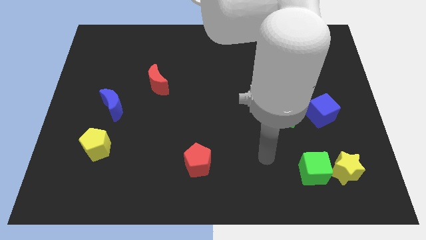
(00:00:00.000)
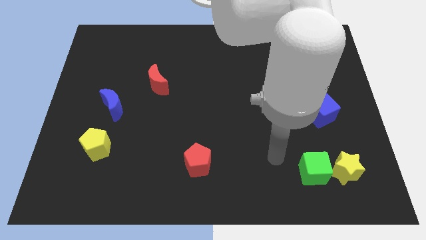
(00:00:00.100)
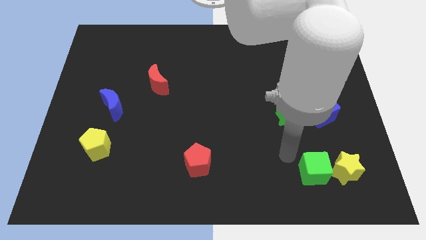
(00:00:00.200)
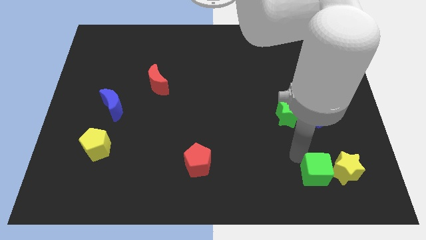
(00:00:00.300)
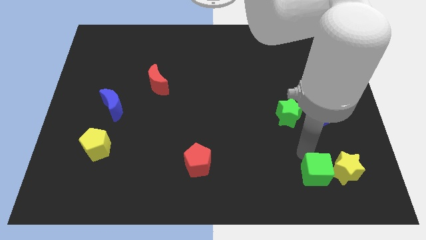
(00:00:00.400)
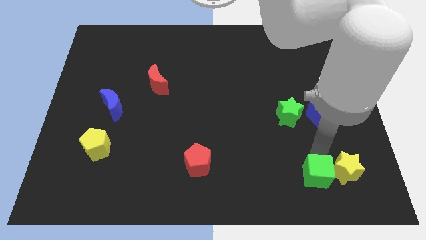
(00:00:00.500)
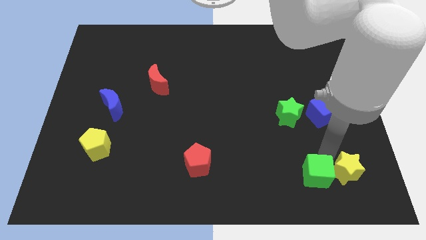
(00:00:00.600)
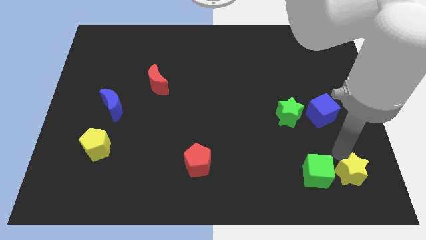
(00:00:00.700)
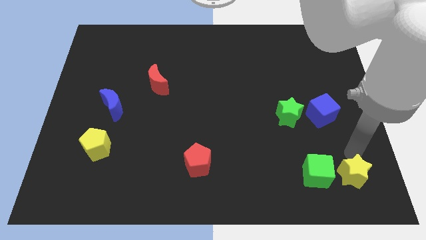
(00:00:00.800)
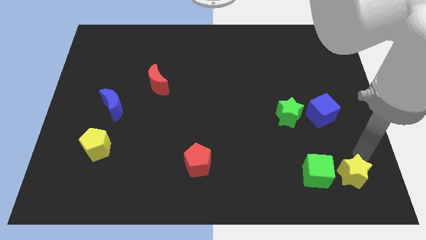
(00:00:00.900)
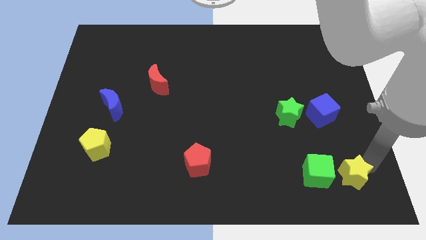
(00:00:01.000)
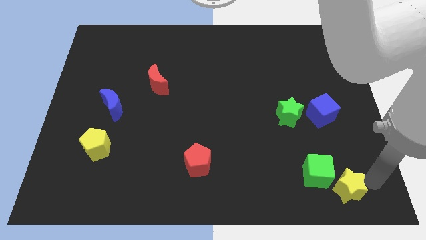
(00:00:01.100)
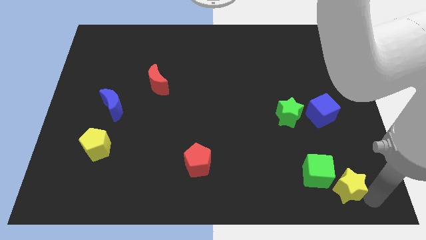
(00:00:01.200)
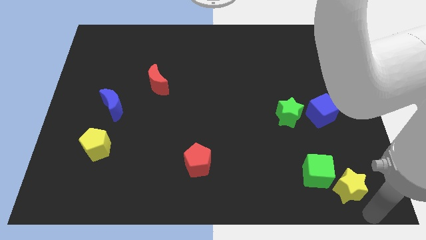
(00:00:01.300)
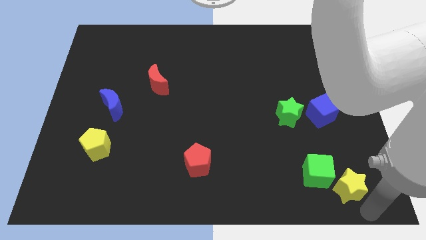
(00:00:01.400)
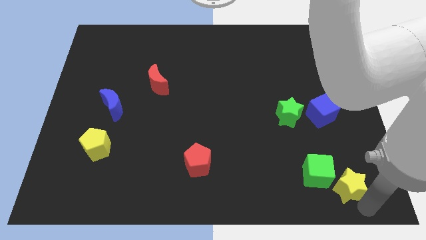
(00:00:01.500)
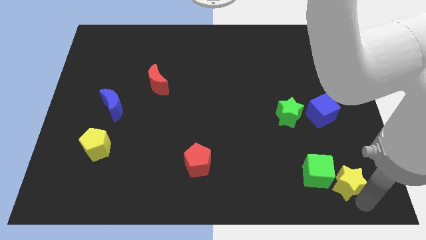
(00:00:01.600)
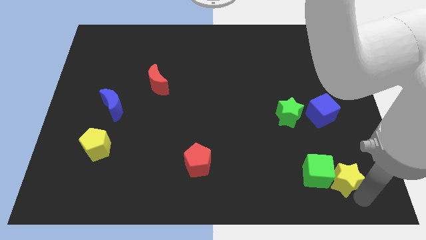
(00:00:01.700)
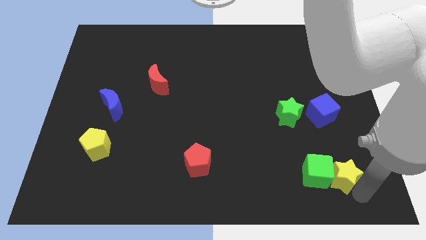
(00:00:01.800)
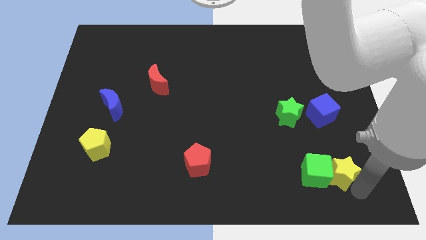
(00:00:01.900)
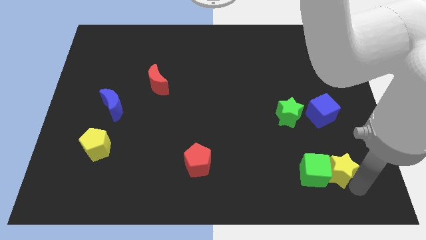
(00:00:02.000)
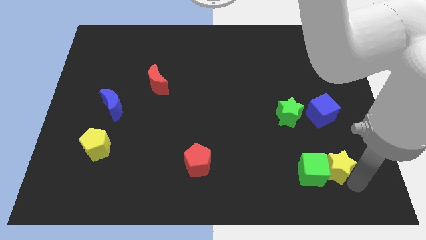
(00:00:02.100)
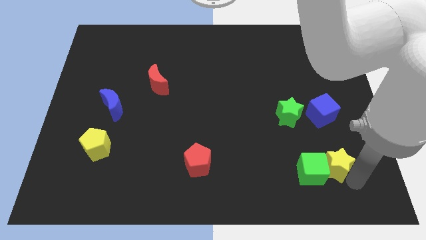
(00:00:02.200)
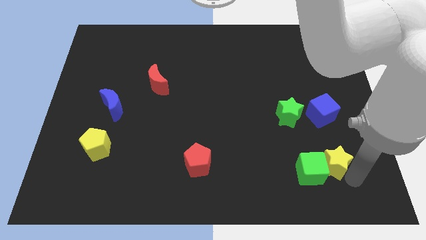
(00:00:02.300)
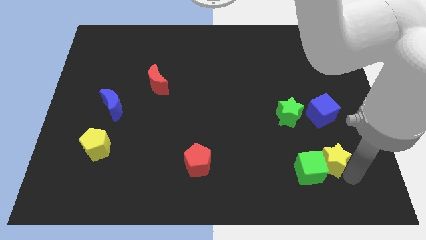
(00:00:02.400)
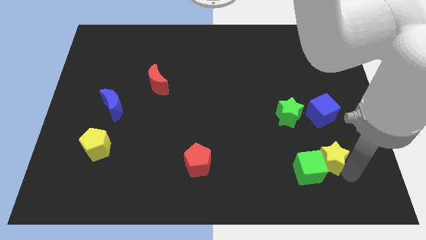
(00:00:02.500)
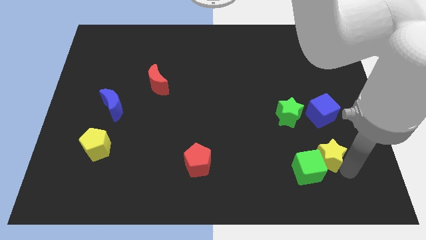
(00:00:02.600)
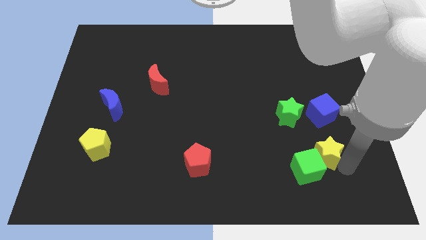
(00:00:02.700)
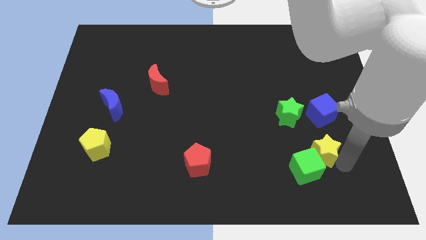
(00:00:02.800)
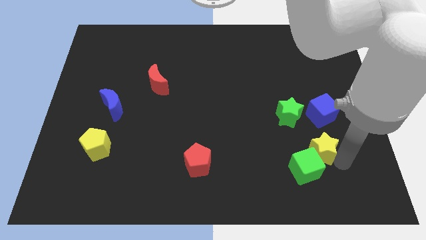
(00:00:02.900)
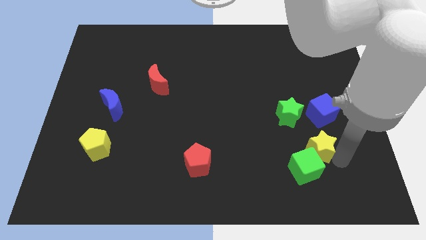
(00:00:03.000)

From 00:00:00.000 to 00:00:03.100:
slide the yellow star upwards and left a little bit

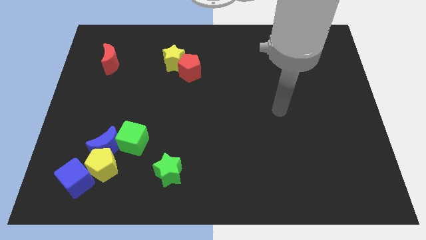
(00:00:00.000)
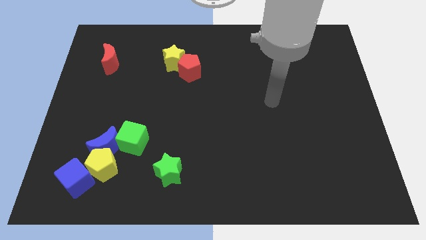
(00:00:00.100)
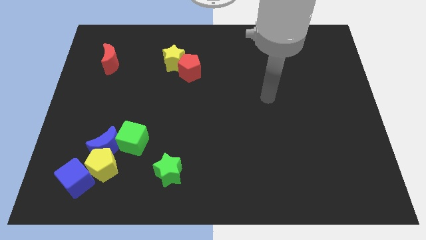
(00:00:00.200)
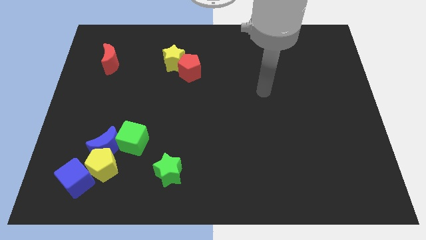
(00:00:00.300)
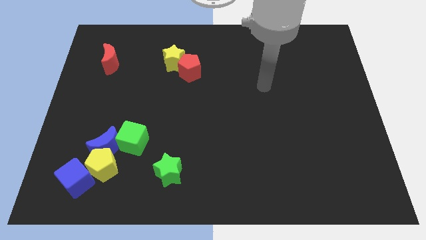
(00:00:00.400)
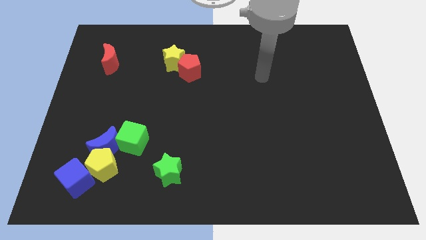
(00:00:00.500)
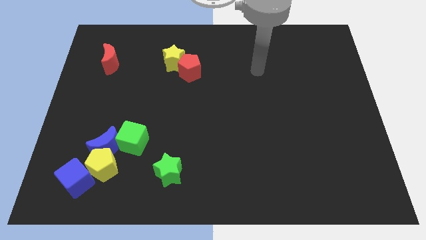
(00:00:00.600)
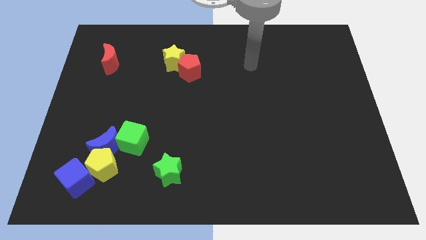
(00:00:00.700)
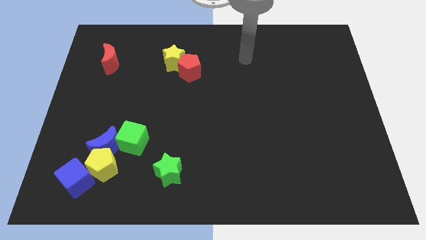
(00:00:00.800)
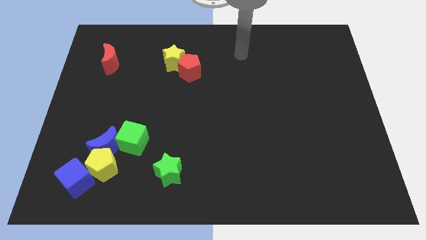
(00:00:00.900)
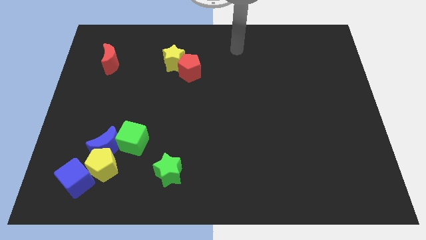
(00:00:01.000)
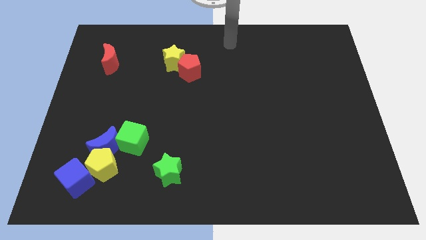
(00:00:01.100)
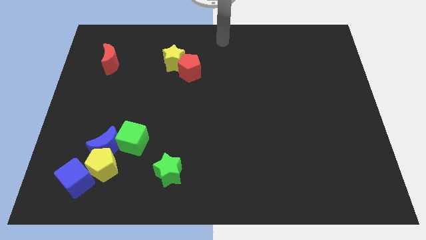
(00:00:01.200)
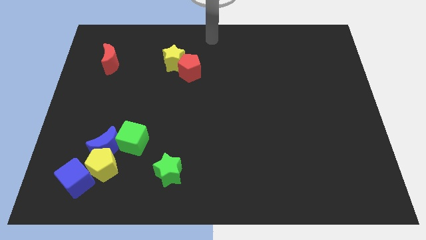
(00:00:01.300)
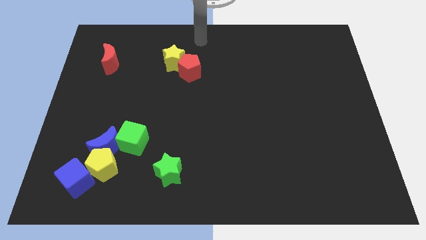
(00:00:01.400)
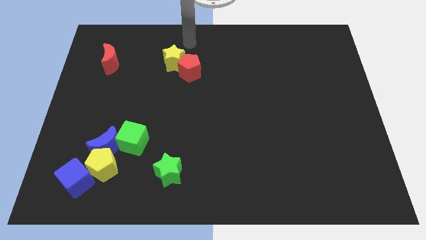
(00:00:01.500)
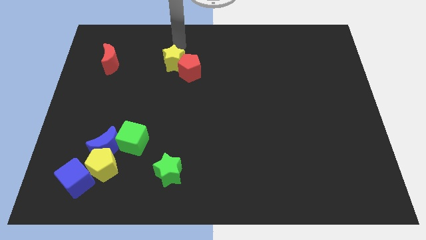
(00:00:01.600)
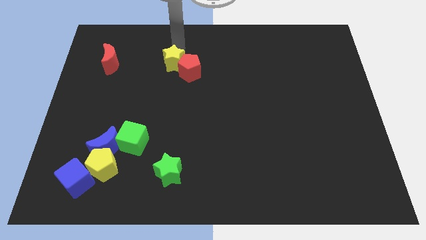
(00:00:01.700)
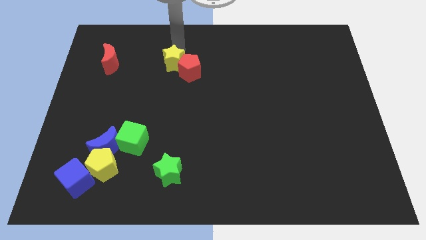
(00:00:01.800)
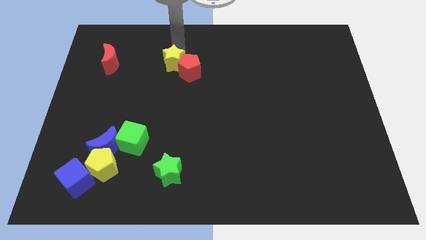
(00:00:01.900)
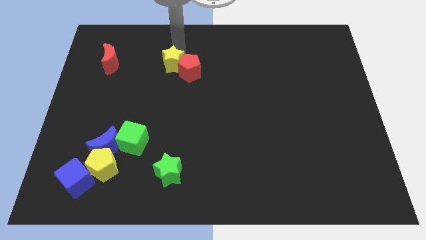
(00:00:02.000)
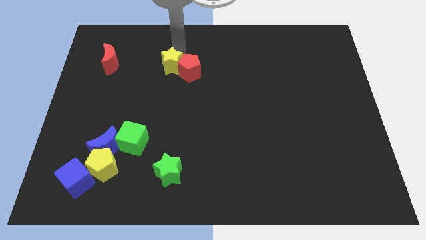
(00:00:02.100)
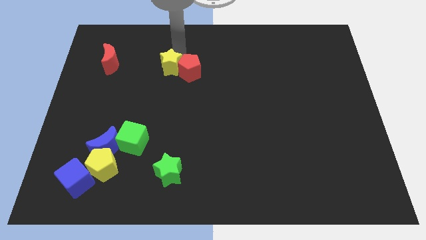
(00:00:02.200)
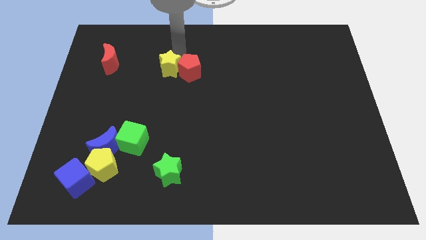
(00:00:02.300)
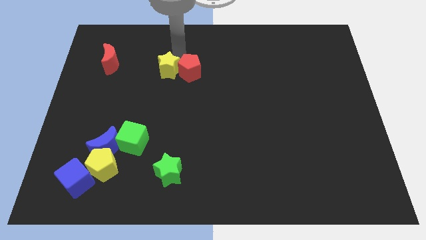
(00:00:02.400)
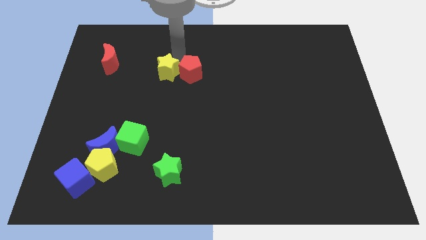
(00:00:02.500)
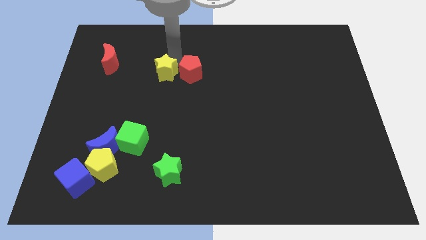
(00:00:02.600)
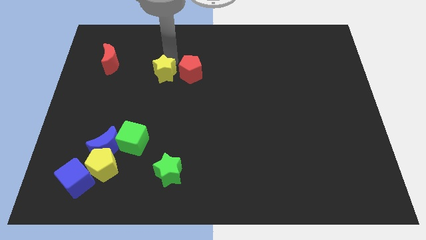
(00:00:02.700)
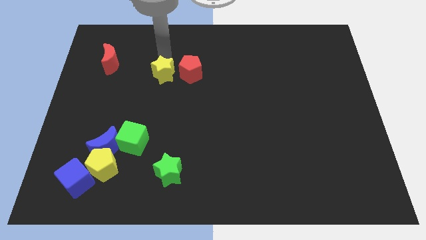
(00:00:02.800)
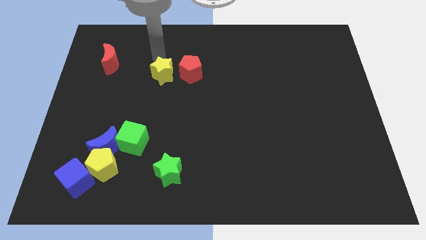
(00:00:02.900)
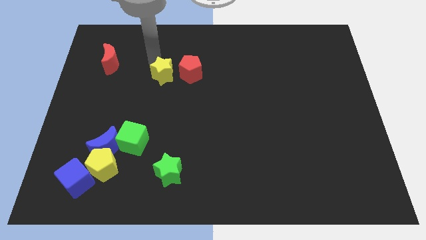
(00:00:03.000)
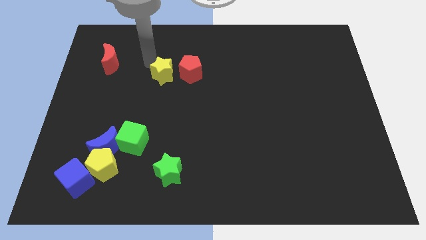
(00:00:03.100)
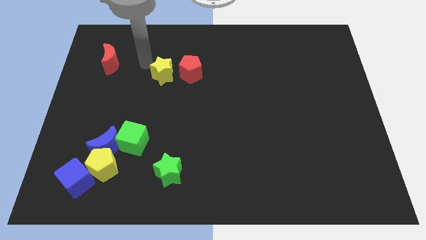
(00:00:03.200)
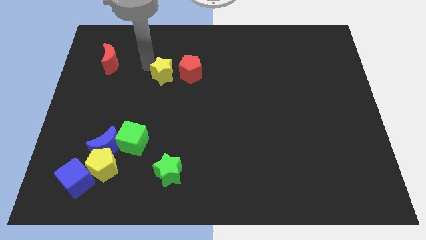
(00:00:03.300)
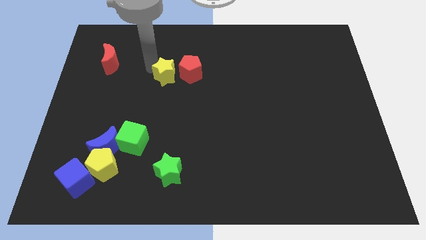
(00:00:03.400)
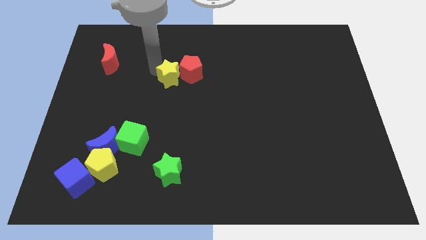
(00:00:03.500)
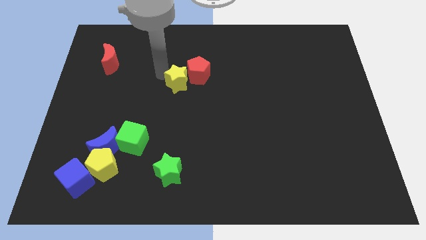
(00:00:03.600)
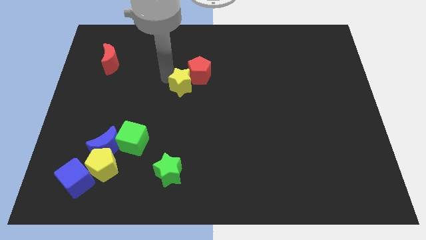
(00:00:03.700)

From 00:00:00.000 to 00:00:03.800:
slide the yellow star a bit down and then to the right

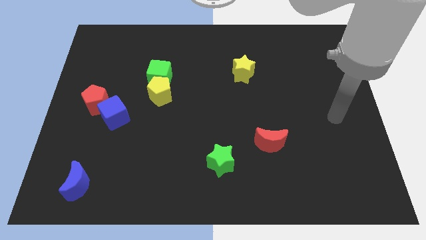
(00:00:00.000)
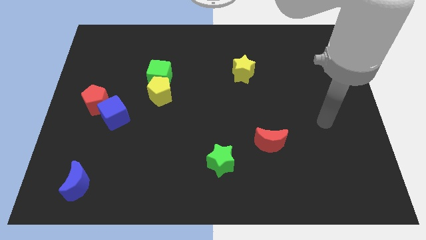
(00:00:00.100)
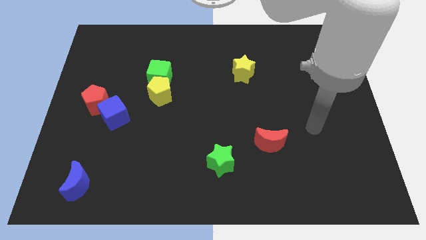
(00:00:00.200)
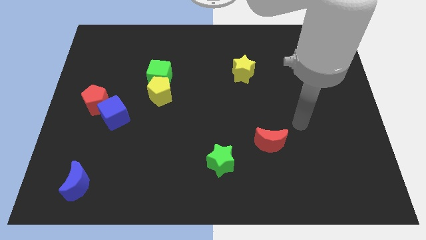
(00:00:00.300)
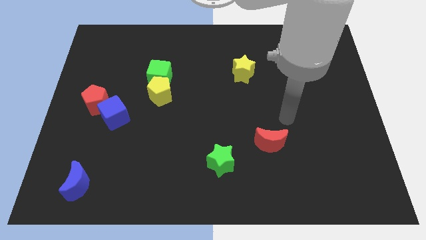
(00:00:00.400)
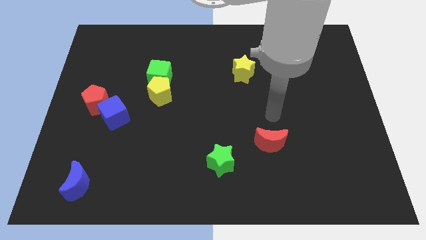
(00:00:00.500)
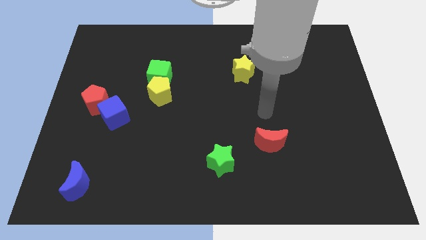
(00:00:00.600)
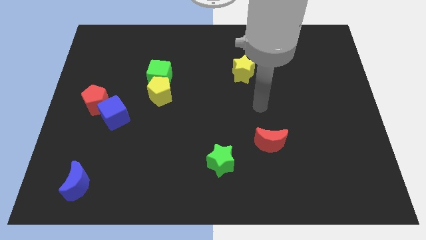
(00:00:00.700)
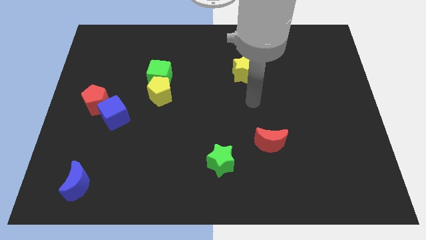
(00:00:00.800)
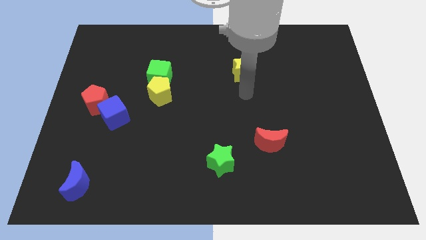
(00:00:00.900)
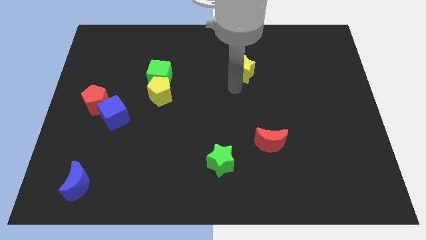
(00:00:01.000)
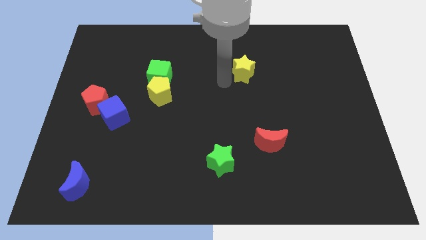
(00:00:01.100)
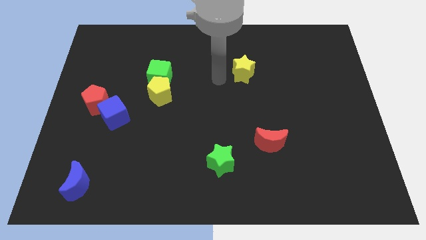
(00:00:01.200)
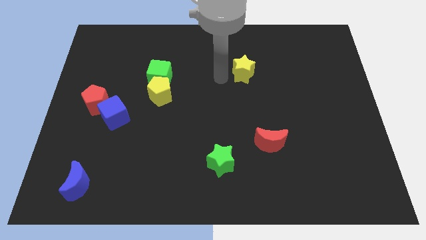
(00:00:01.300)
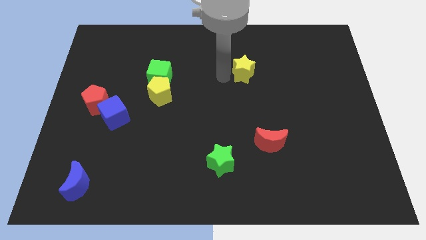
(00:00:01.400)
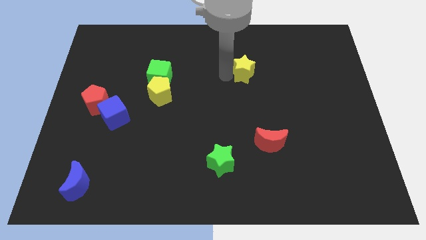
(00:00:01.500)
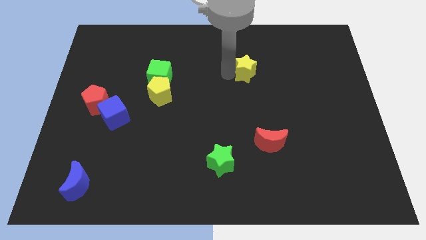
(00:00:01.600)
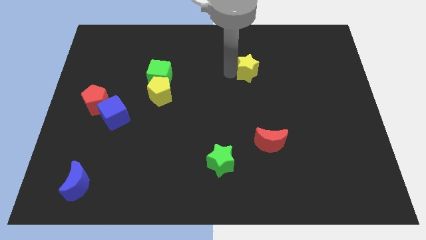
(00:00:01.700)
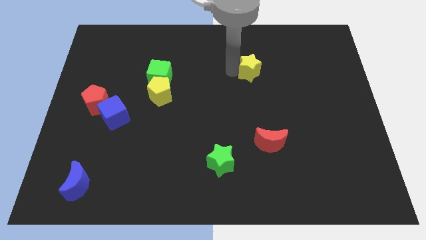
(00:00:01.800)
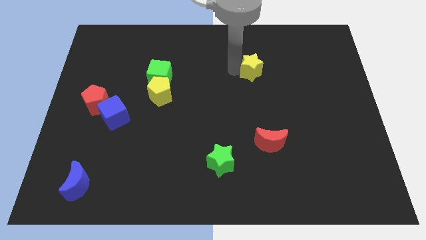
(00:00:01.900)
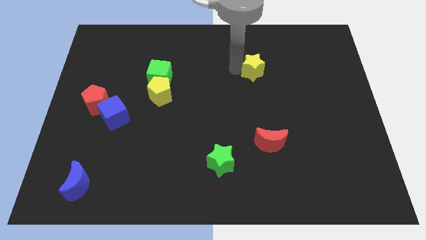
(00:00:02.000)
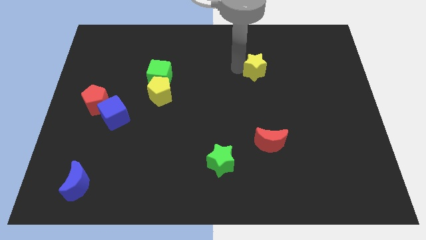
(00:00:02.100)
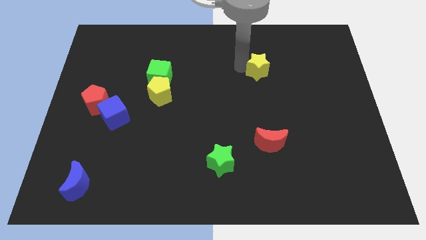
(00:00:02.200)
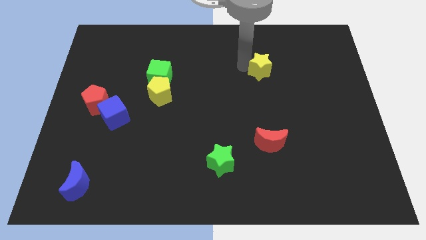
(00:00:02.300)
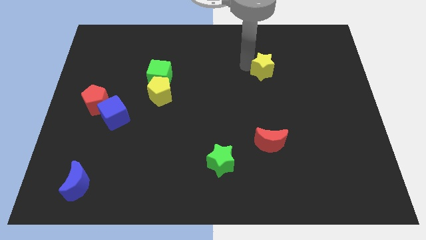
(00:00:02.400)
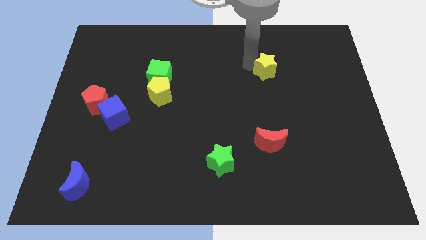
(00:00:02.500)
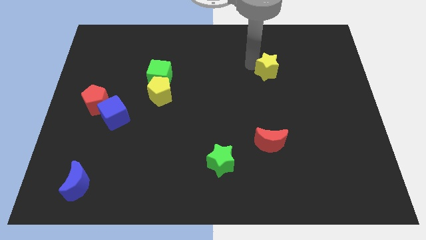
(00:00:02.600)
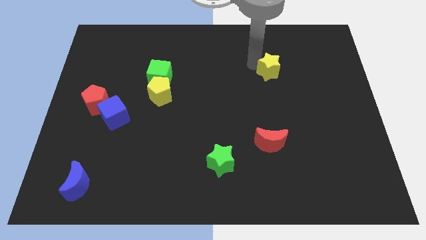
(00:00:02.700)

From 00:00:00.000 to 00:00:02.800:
slightly move the yellow star to the right
